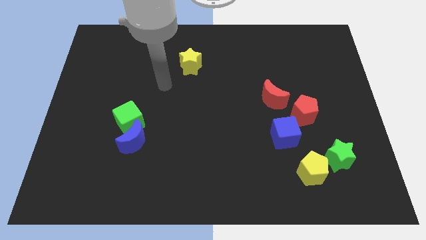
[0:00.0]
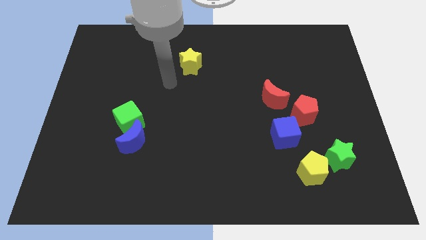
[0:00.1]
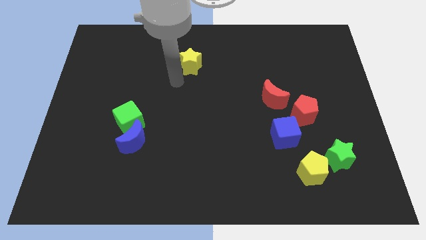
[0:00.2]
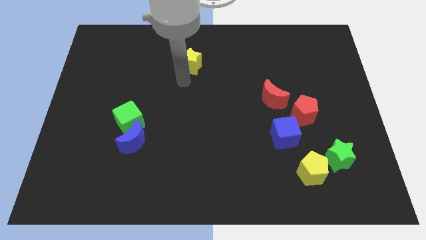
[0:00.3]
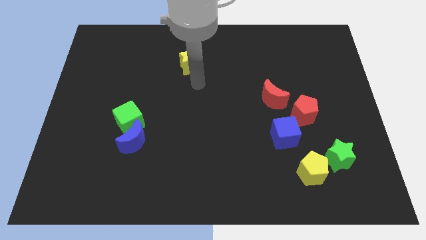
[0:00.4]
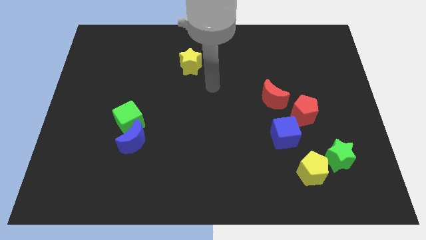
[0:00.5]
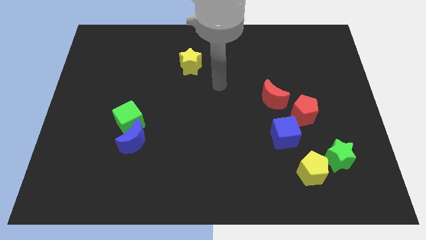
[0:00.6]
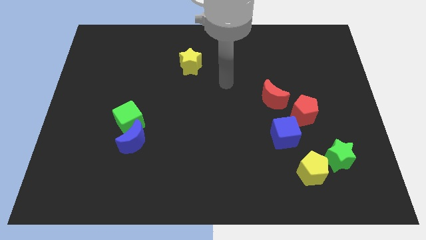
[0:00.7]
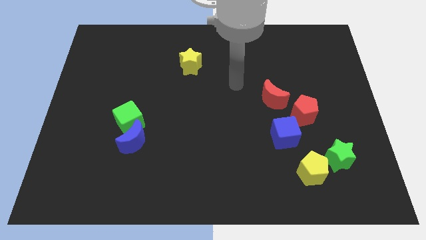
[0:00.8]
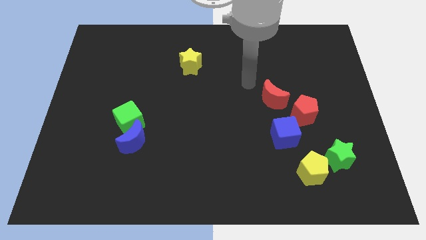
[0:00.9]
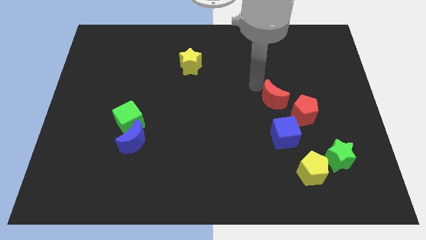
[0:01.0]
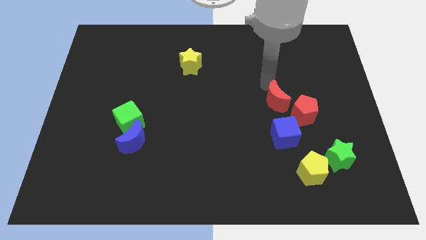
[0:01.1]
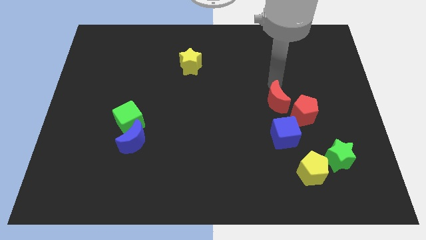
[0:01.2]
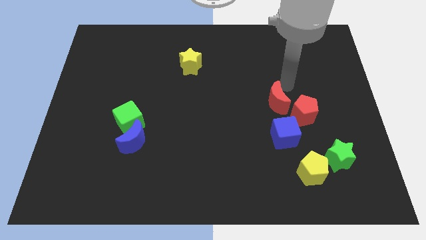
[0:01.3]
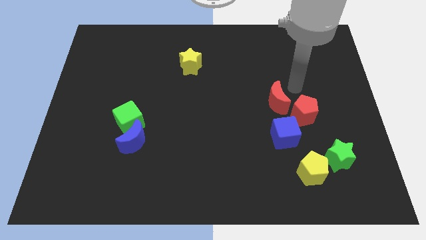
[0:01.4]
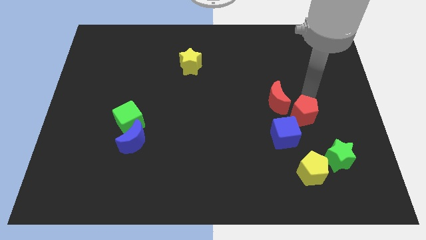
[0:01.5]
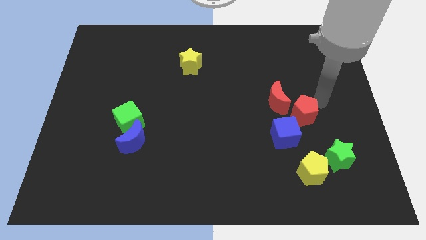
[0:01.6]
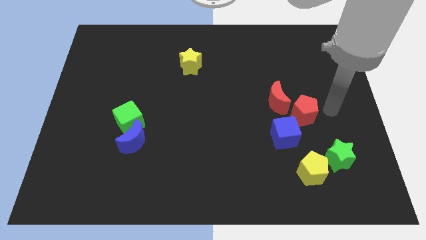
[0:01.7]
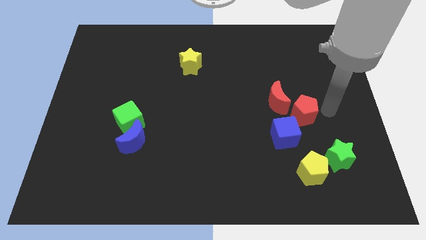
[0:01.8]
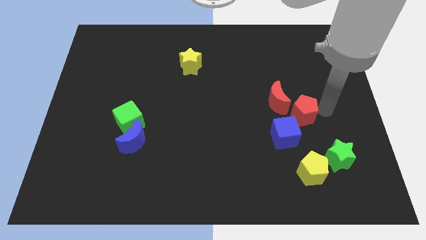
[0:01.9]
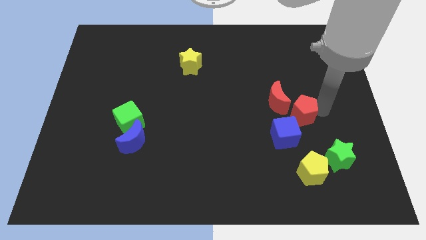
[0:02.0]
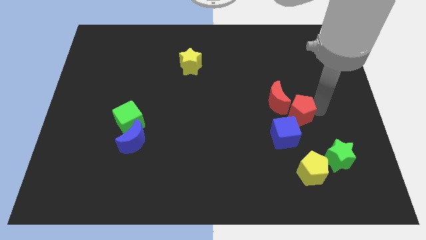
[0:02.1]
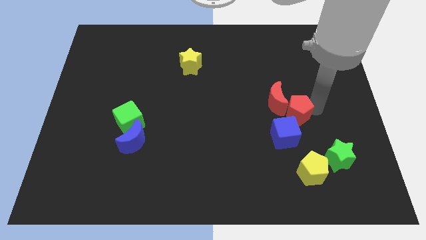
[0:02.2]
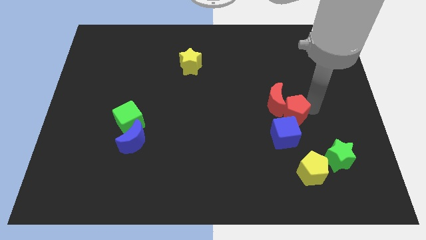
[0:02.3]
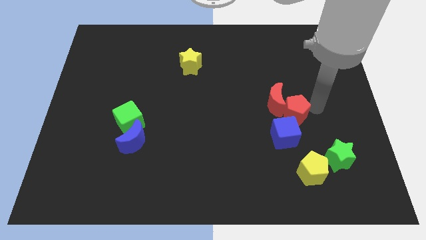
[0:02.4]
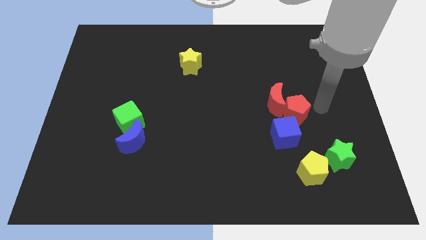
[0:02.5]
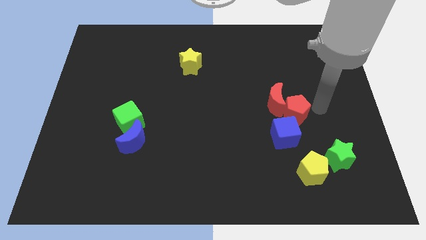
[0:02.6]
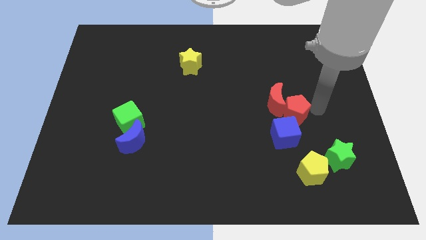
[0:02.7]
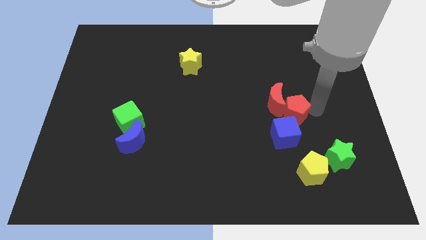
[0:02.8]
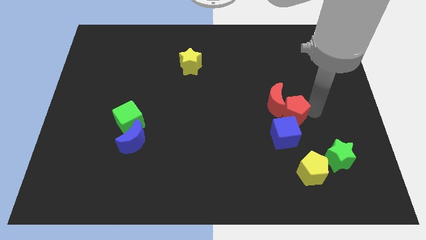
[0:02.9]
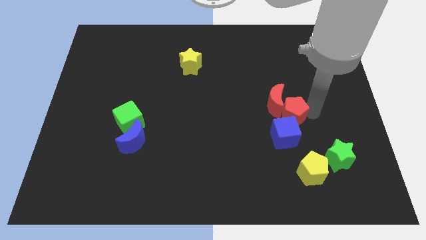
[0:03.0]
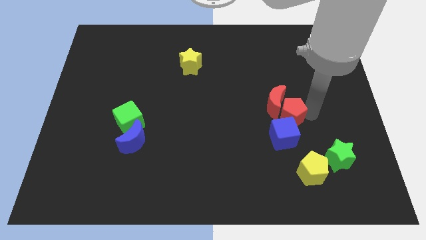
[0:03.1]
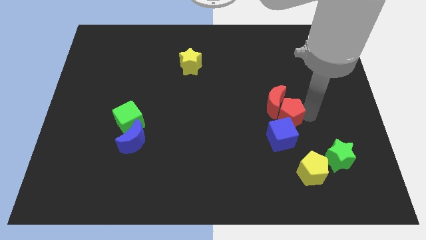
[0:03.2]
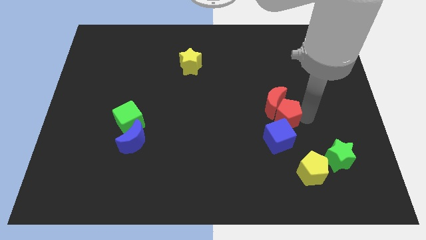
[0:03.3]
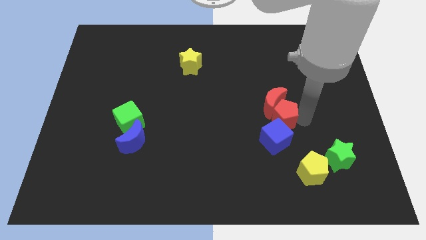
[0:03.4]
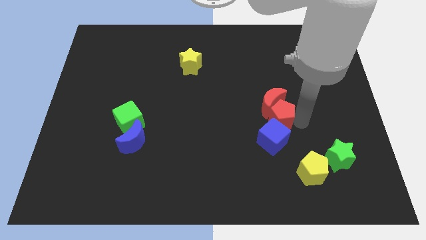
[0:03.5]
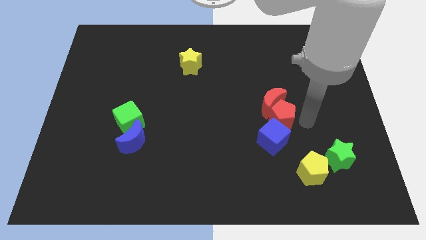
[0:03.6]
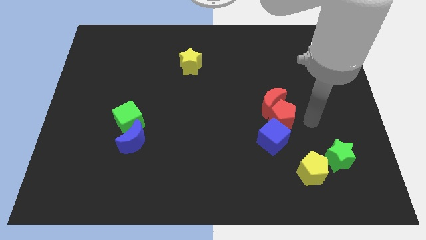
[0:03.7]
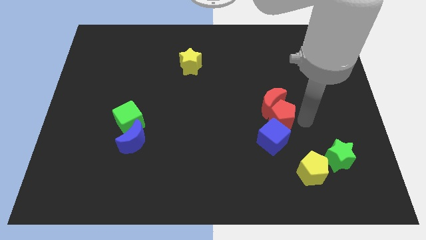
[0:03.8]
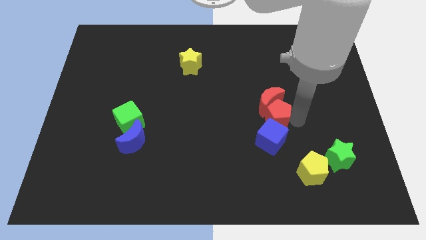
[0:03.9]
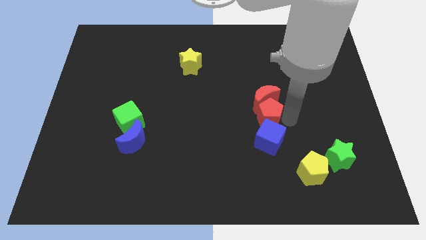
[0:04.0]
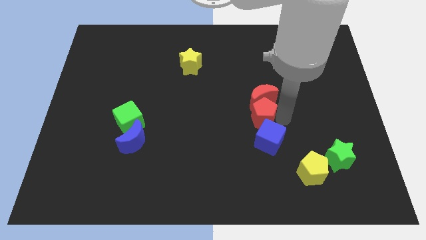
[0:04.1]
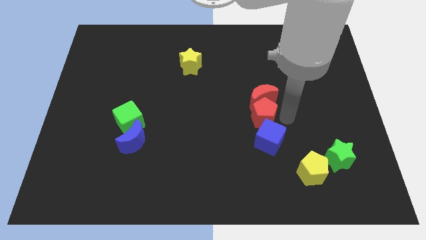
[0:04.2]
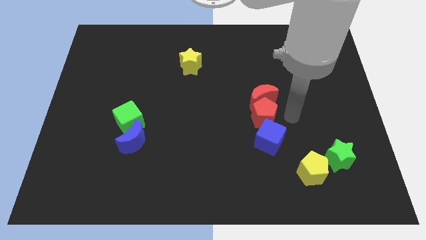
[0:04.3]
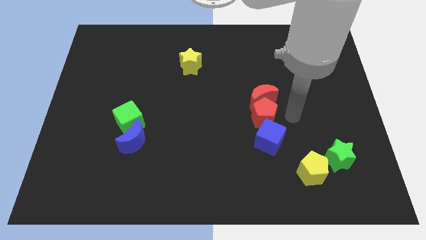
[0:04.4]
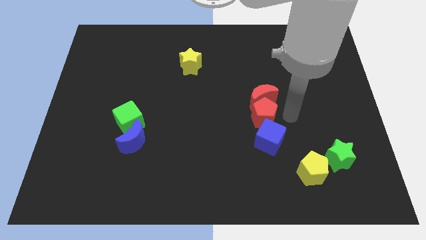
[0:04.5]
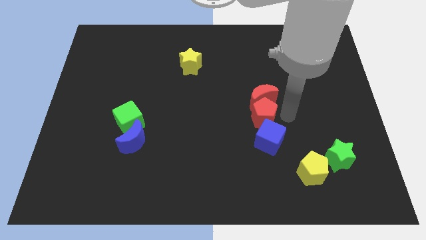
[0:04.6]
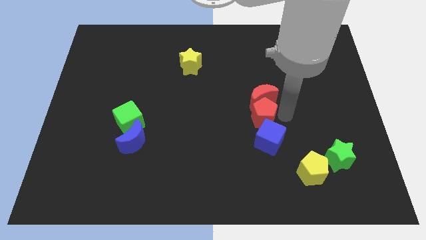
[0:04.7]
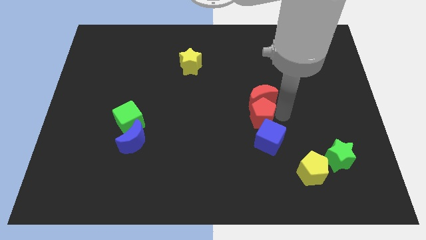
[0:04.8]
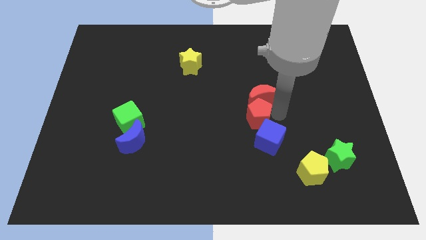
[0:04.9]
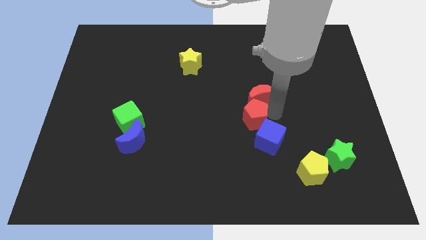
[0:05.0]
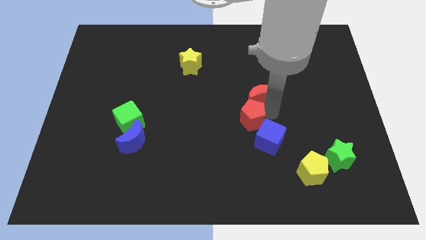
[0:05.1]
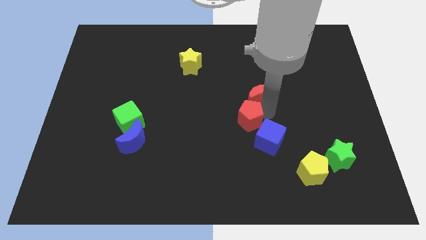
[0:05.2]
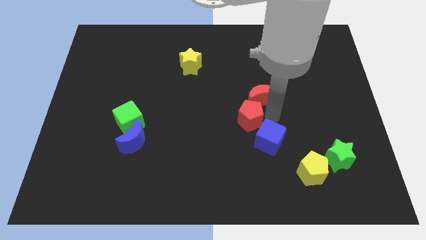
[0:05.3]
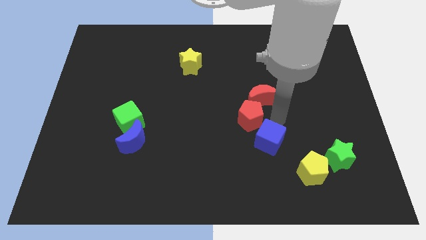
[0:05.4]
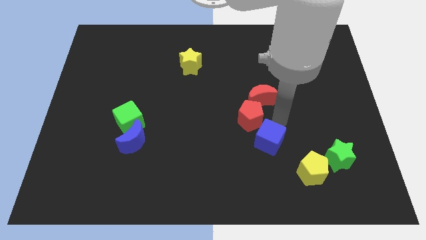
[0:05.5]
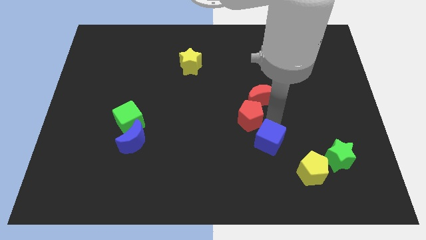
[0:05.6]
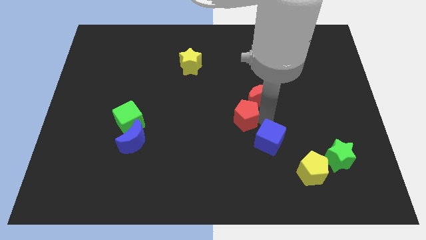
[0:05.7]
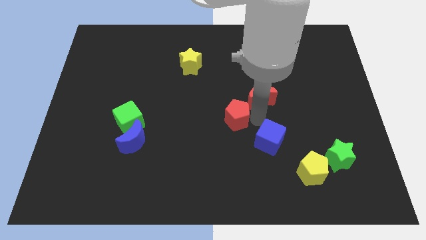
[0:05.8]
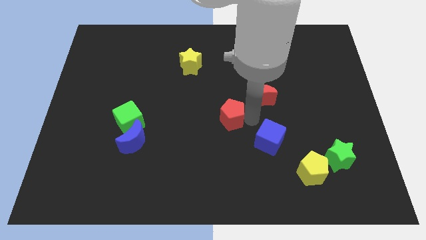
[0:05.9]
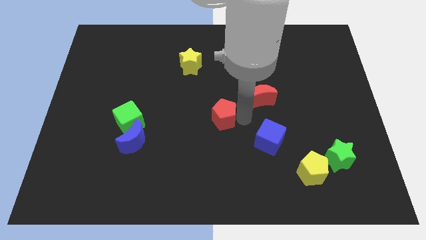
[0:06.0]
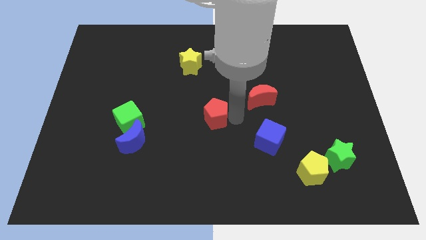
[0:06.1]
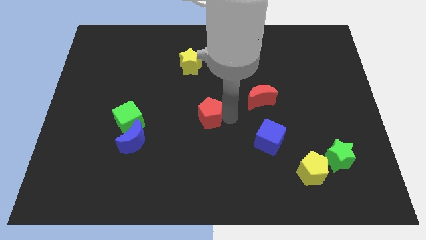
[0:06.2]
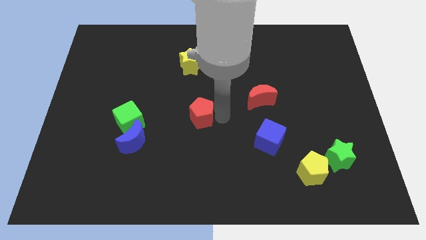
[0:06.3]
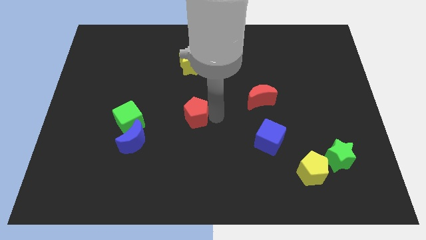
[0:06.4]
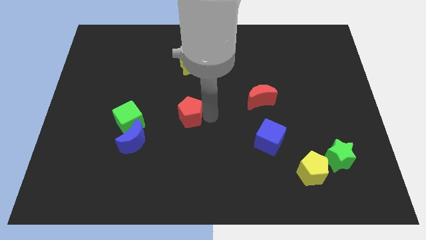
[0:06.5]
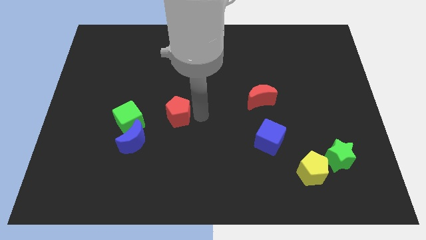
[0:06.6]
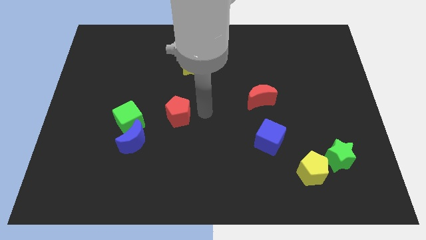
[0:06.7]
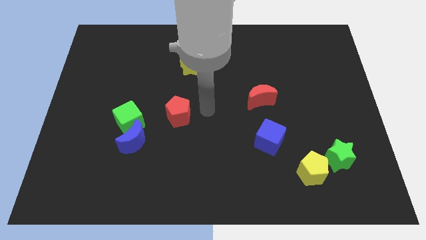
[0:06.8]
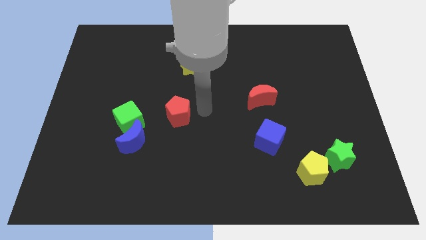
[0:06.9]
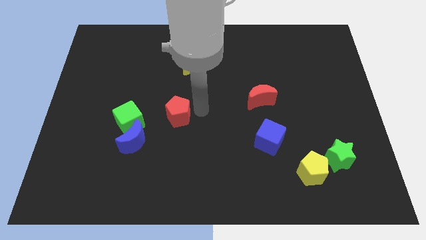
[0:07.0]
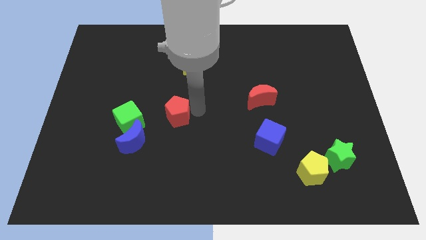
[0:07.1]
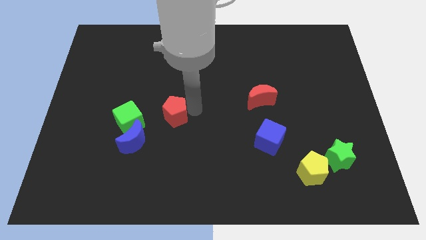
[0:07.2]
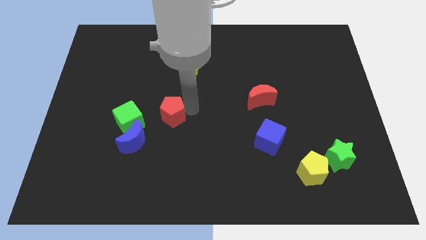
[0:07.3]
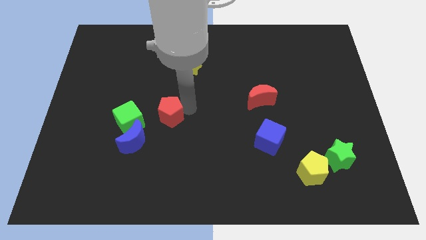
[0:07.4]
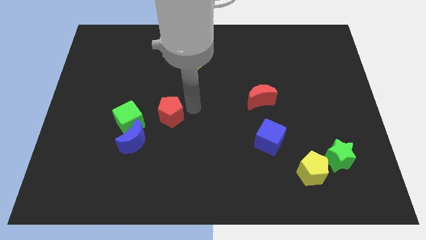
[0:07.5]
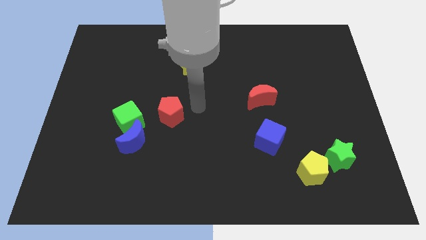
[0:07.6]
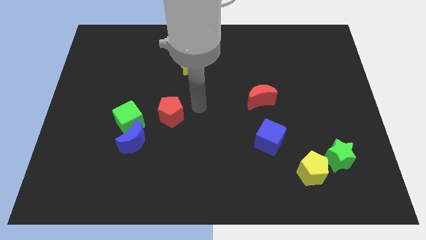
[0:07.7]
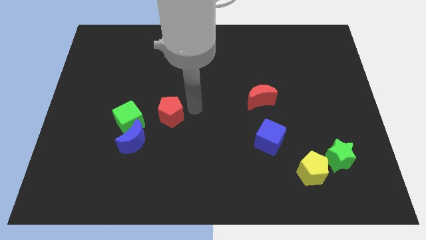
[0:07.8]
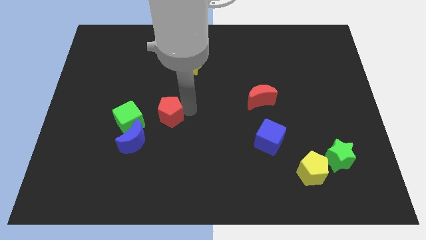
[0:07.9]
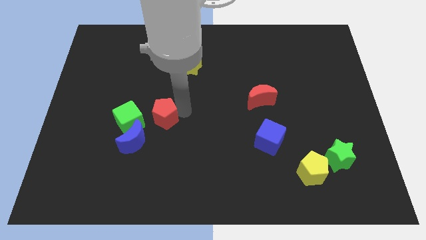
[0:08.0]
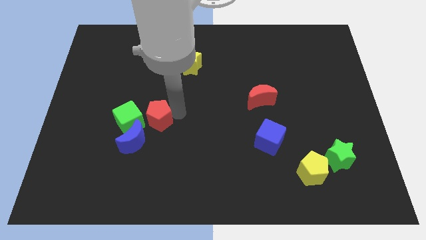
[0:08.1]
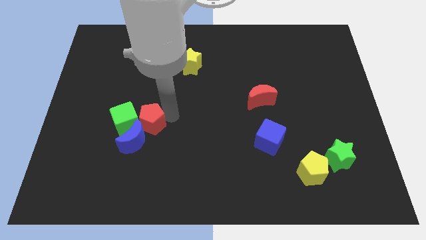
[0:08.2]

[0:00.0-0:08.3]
put the red pentagon to the green cube
